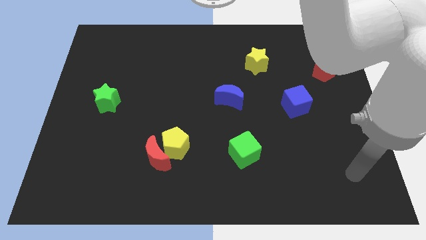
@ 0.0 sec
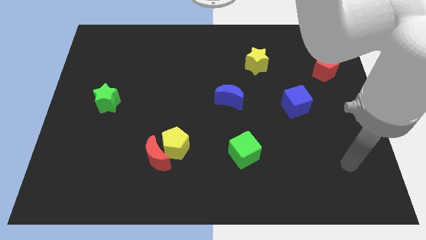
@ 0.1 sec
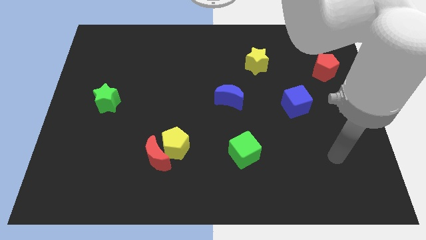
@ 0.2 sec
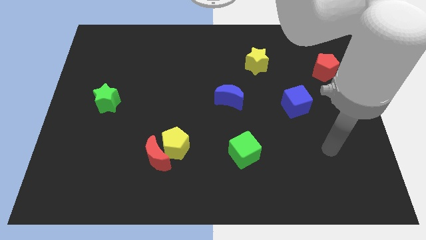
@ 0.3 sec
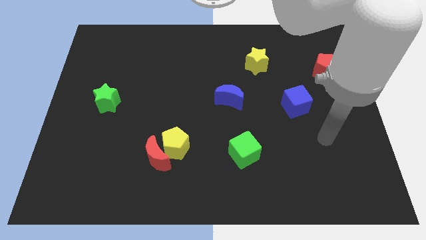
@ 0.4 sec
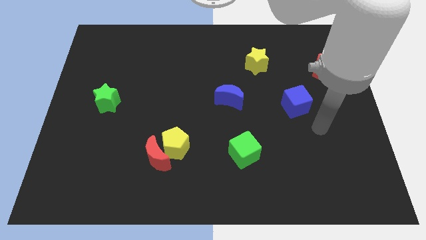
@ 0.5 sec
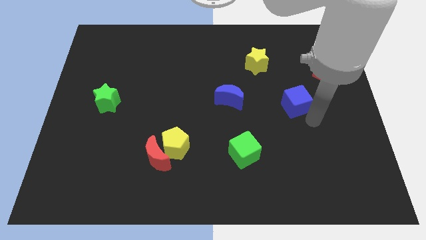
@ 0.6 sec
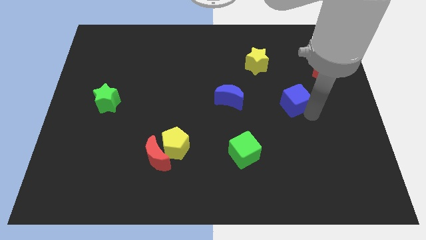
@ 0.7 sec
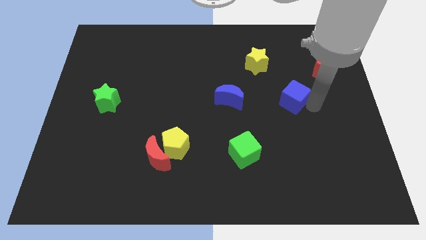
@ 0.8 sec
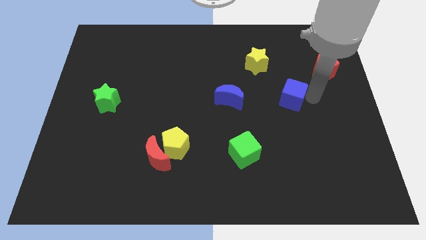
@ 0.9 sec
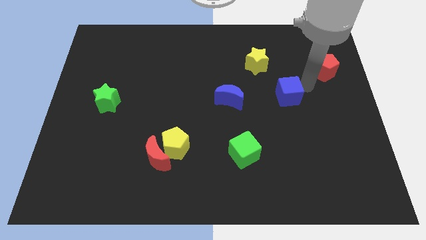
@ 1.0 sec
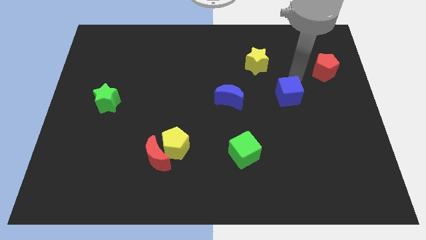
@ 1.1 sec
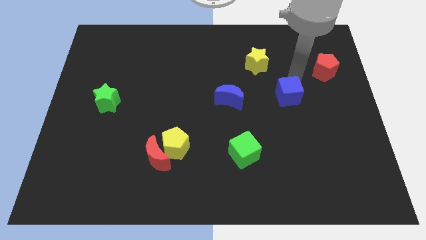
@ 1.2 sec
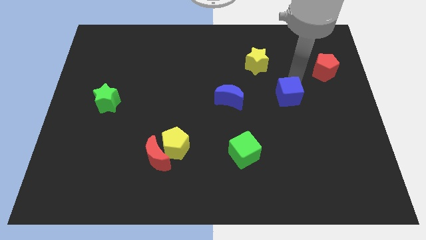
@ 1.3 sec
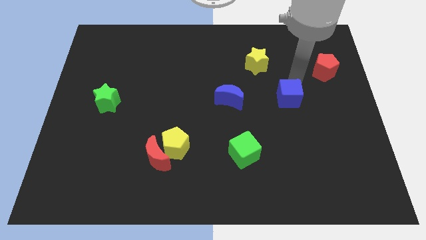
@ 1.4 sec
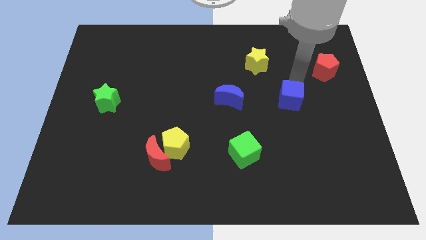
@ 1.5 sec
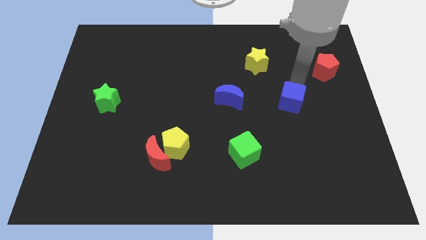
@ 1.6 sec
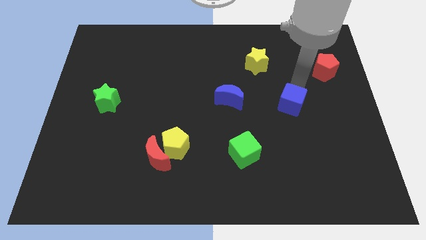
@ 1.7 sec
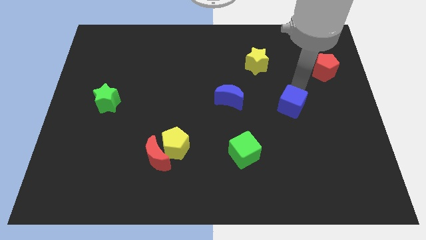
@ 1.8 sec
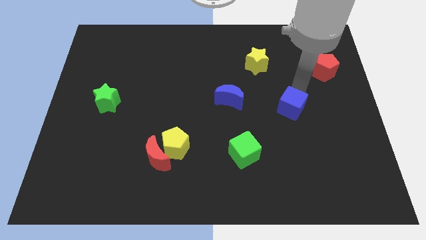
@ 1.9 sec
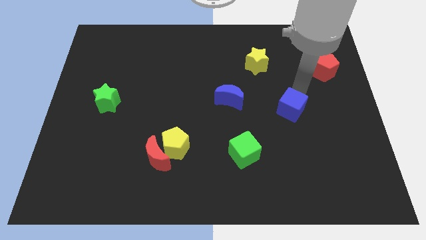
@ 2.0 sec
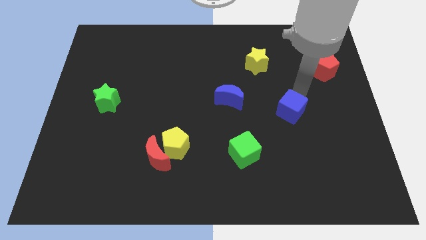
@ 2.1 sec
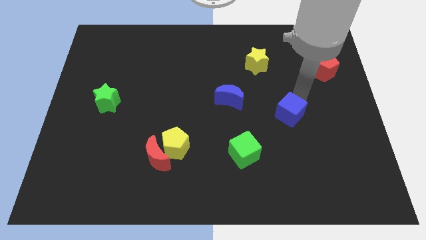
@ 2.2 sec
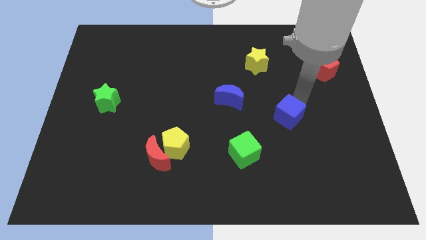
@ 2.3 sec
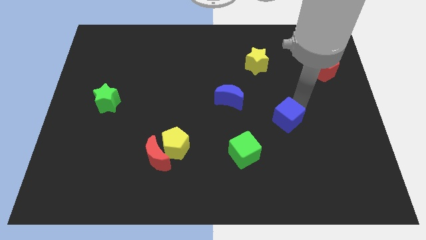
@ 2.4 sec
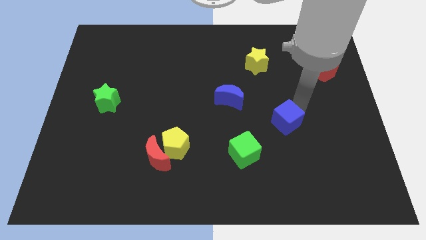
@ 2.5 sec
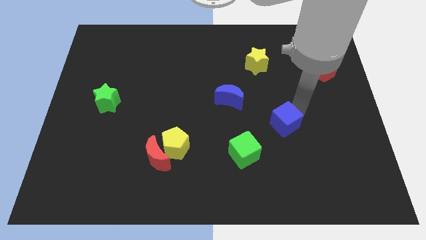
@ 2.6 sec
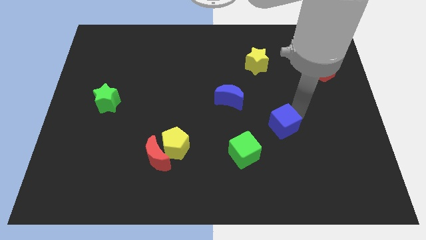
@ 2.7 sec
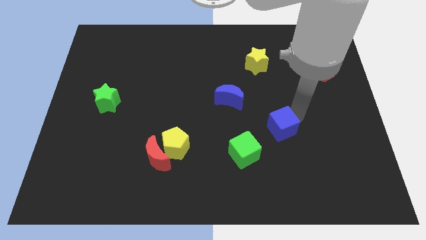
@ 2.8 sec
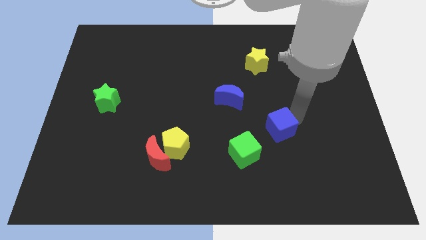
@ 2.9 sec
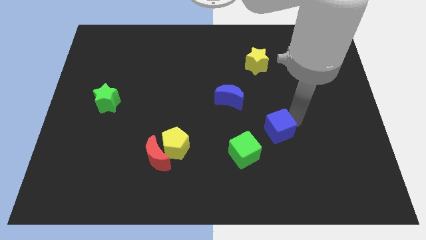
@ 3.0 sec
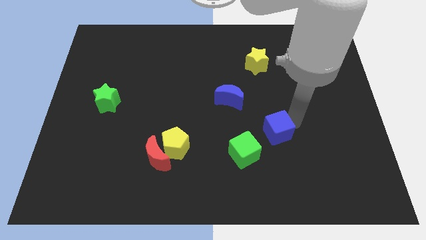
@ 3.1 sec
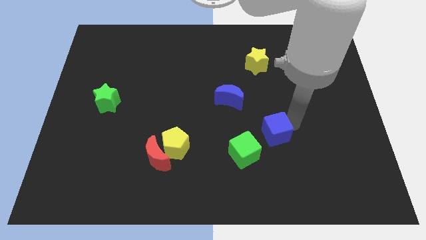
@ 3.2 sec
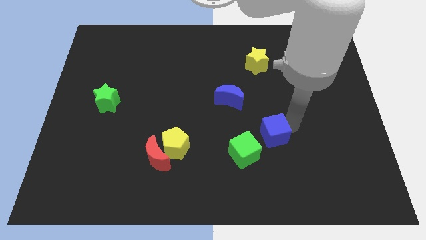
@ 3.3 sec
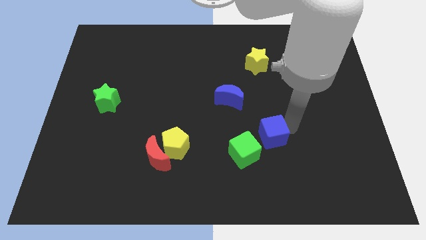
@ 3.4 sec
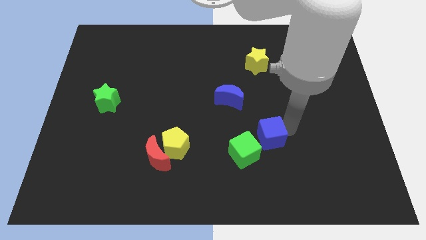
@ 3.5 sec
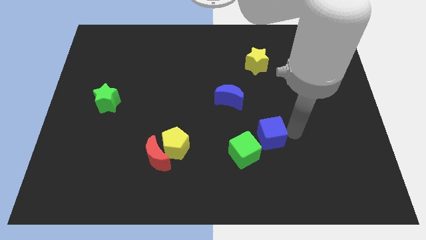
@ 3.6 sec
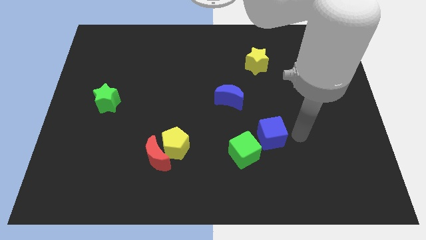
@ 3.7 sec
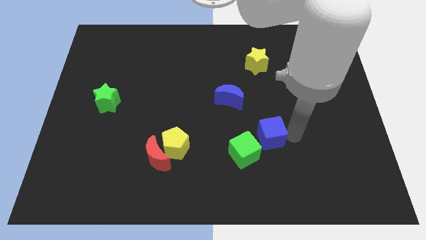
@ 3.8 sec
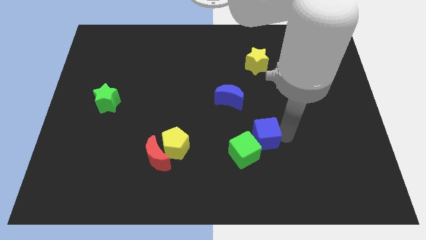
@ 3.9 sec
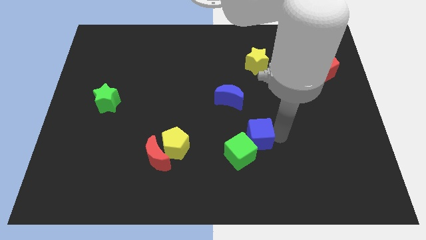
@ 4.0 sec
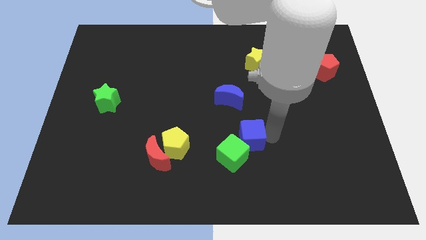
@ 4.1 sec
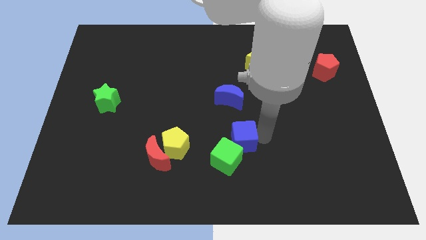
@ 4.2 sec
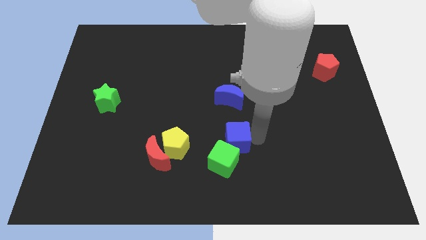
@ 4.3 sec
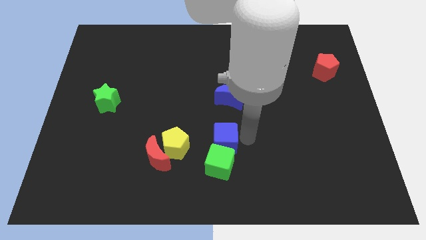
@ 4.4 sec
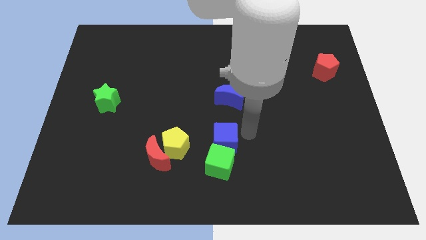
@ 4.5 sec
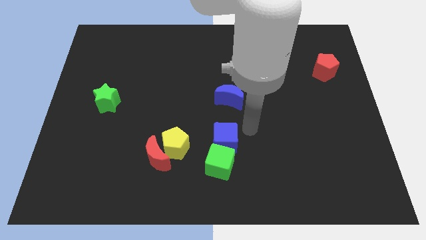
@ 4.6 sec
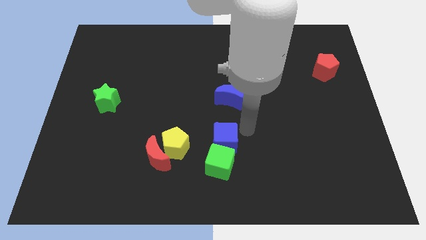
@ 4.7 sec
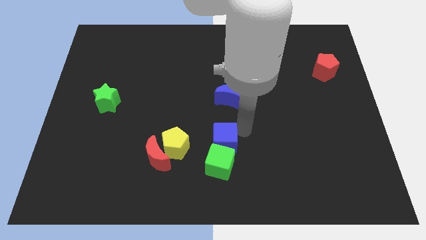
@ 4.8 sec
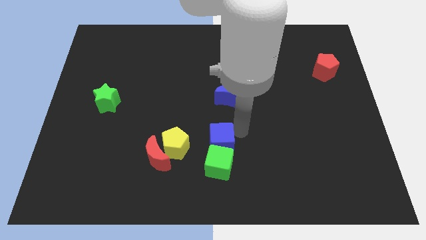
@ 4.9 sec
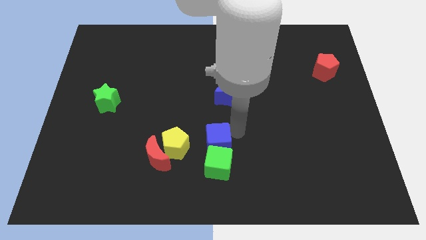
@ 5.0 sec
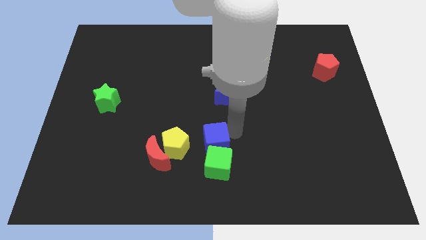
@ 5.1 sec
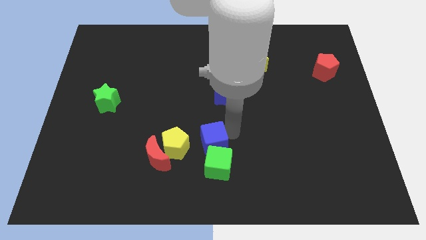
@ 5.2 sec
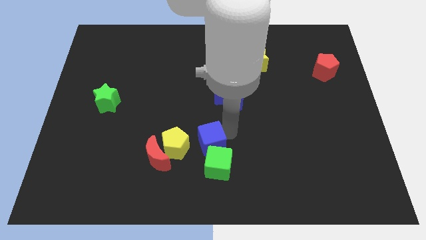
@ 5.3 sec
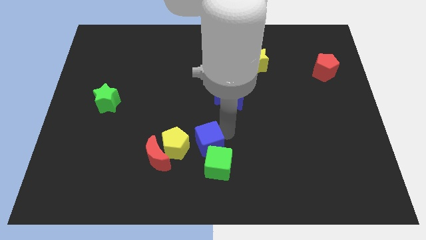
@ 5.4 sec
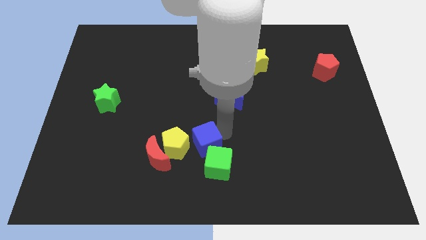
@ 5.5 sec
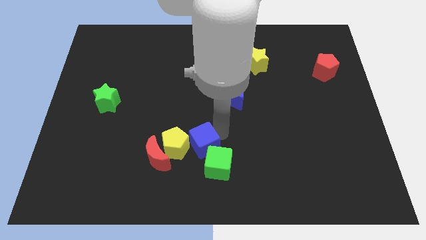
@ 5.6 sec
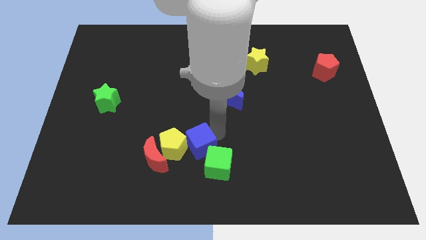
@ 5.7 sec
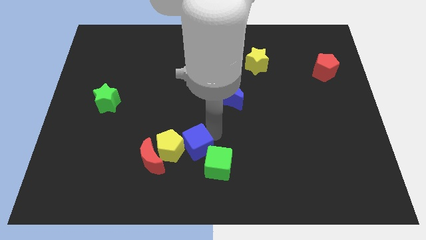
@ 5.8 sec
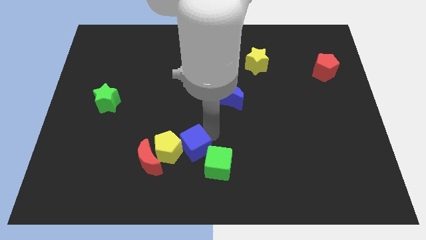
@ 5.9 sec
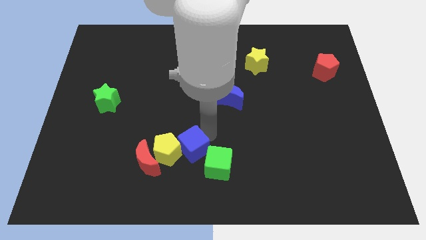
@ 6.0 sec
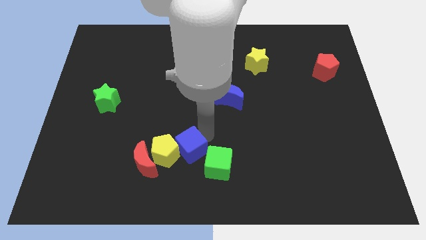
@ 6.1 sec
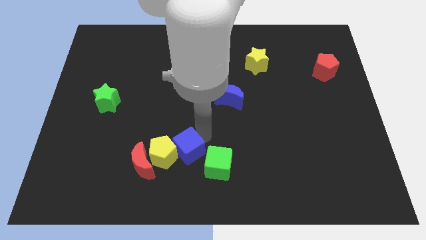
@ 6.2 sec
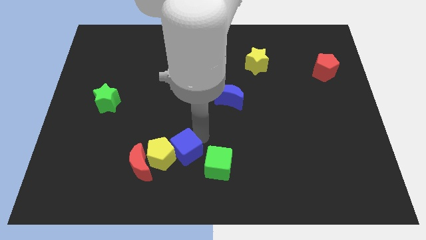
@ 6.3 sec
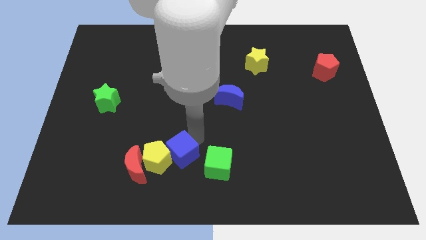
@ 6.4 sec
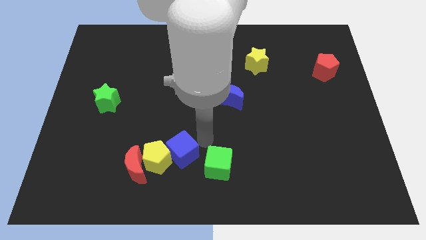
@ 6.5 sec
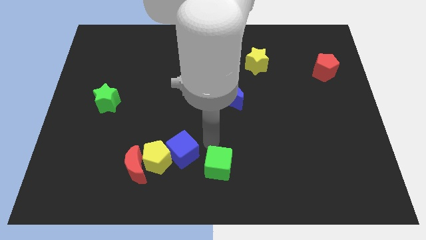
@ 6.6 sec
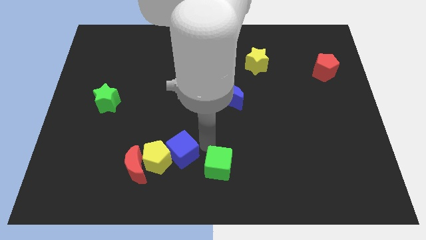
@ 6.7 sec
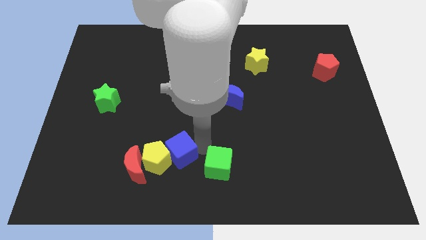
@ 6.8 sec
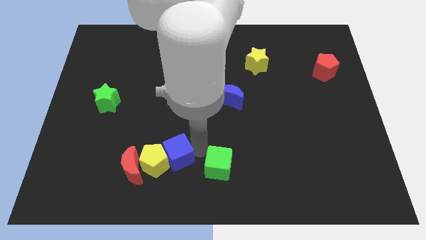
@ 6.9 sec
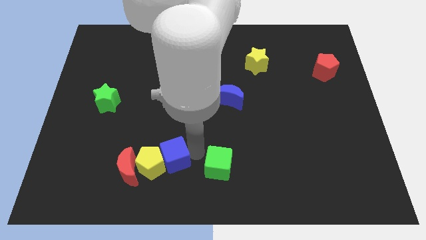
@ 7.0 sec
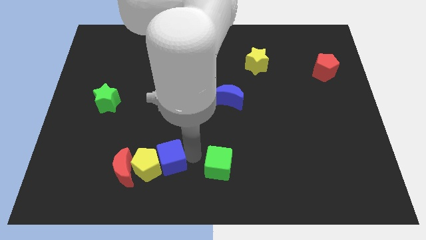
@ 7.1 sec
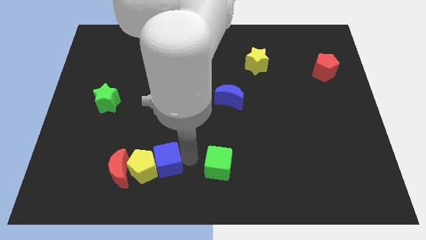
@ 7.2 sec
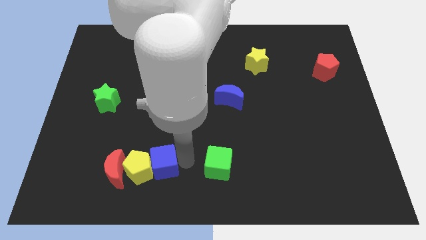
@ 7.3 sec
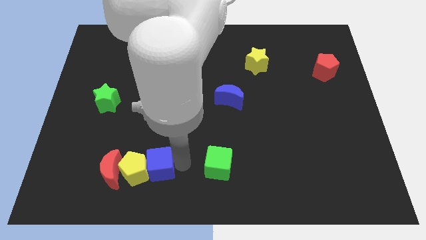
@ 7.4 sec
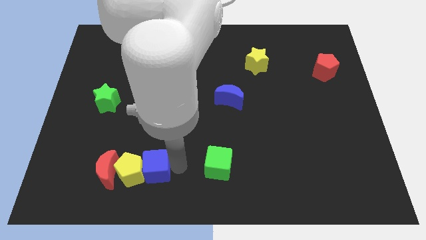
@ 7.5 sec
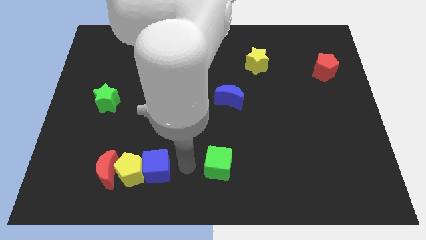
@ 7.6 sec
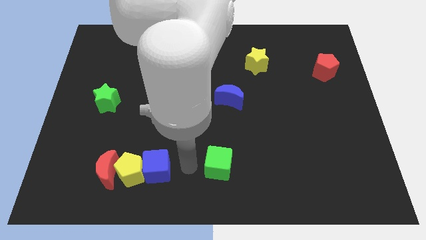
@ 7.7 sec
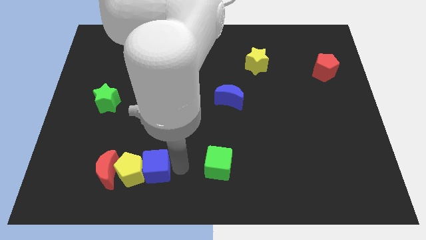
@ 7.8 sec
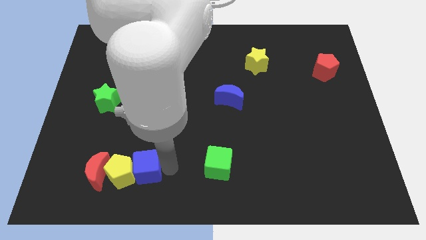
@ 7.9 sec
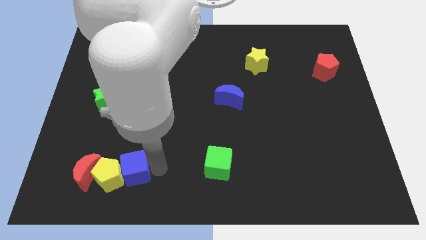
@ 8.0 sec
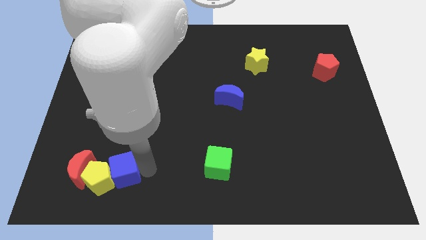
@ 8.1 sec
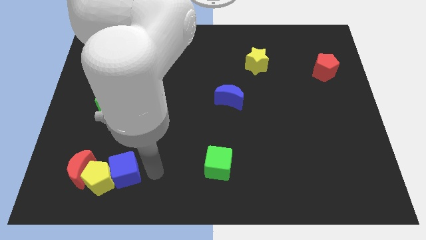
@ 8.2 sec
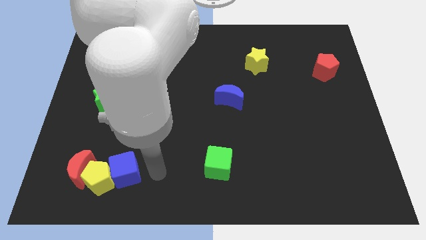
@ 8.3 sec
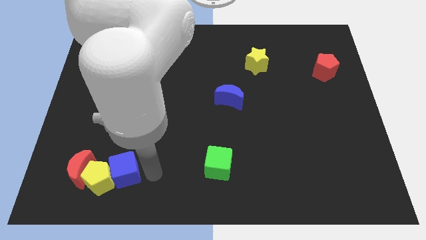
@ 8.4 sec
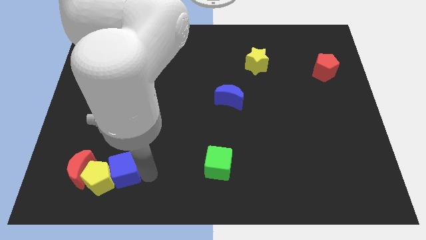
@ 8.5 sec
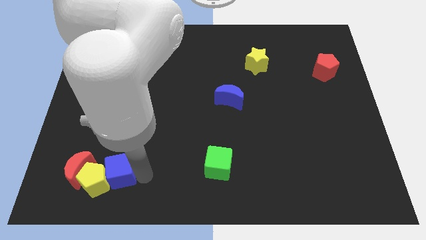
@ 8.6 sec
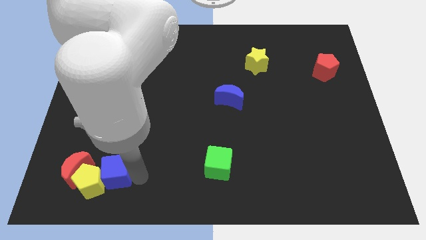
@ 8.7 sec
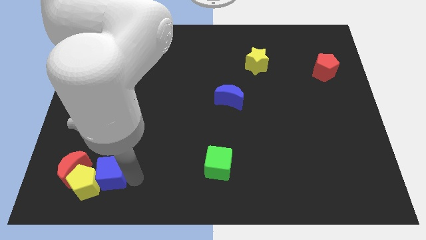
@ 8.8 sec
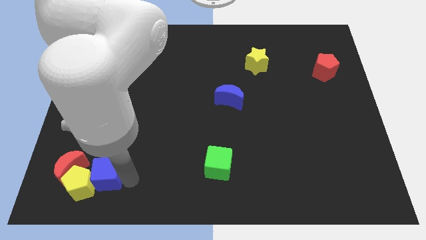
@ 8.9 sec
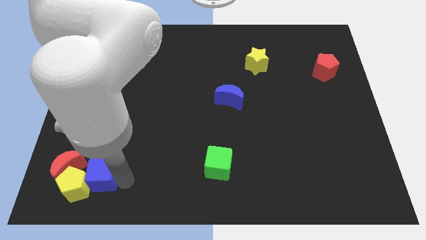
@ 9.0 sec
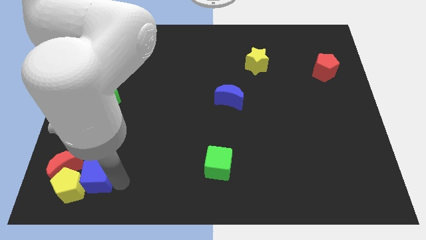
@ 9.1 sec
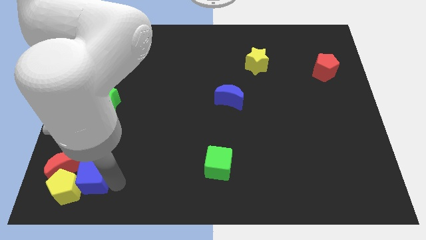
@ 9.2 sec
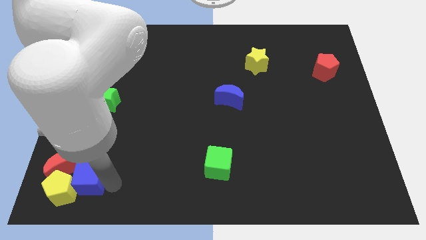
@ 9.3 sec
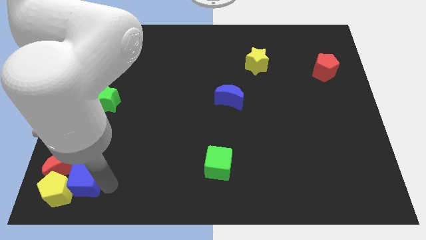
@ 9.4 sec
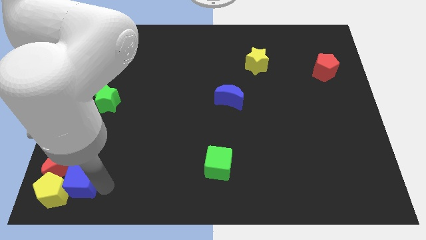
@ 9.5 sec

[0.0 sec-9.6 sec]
slide the blue cube to the red moon
